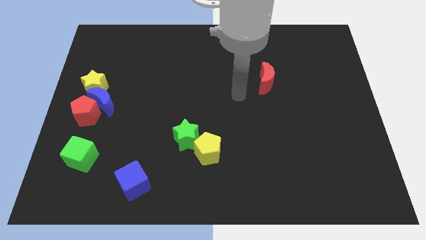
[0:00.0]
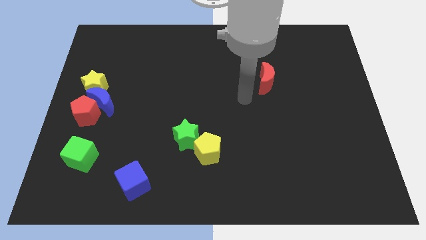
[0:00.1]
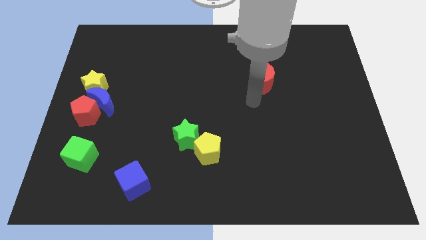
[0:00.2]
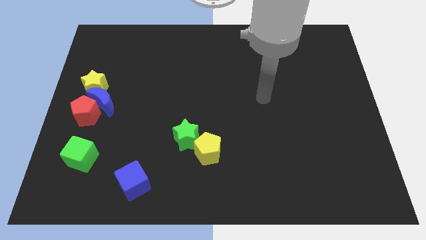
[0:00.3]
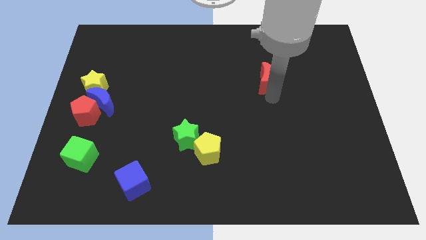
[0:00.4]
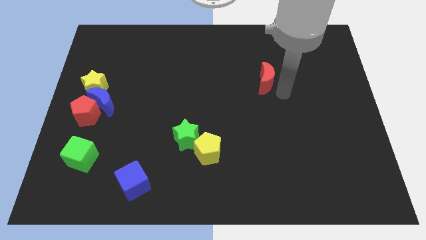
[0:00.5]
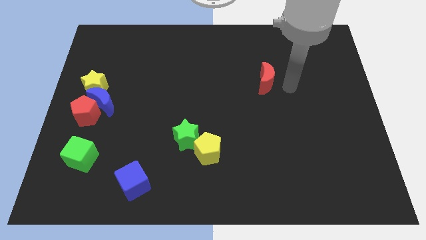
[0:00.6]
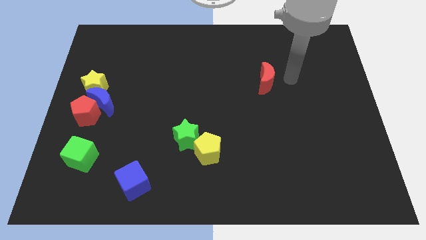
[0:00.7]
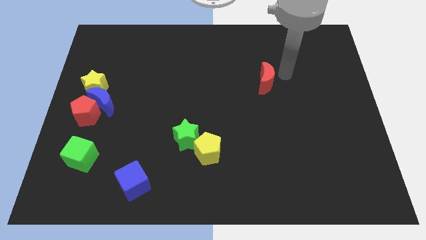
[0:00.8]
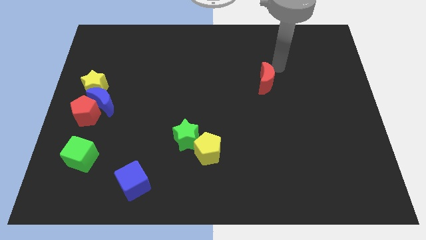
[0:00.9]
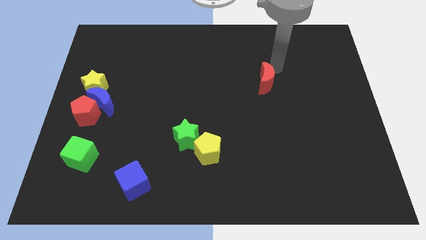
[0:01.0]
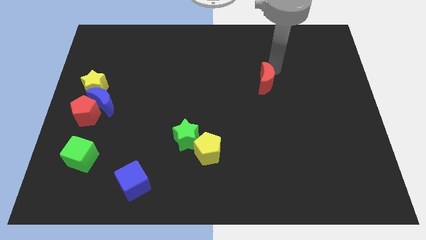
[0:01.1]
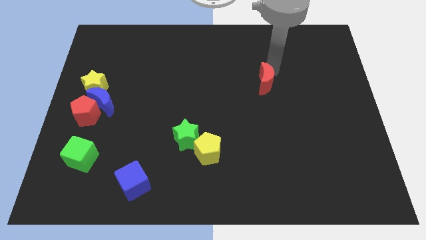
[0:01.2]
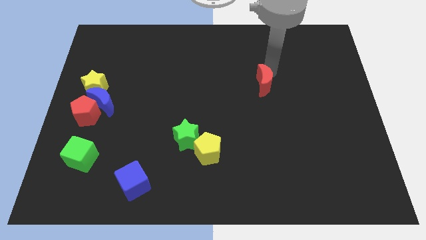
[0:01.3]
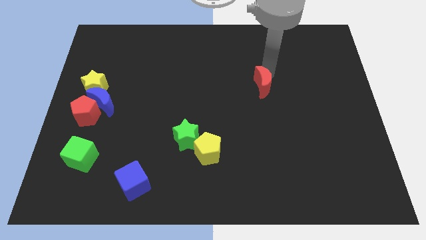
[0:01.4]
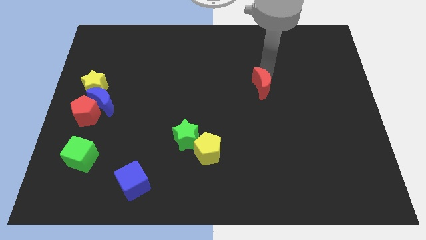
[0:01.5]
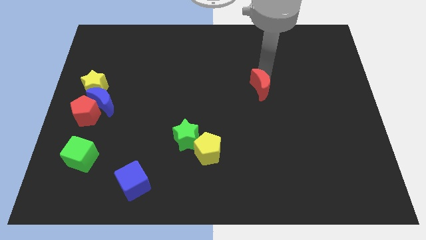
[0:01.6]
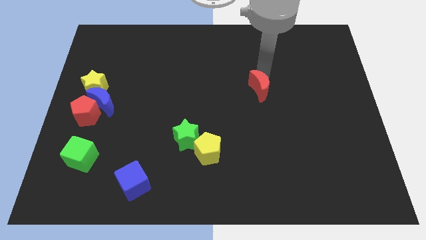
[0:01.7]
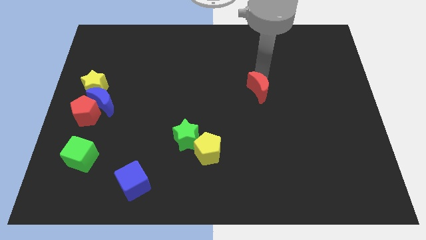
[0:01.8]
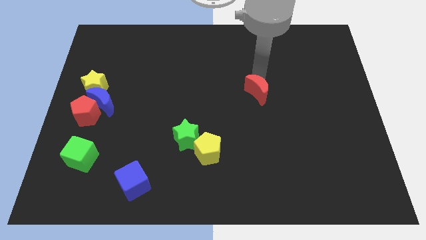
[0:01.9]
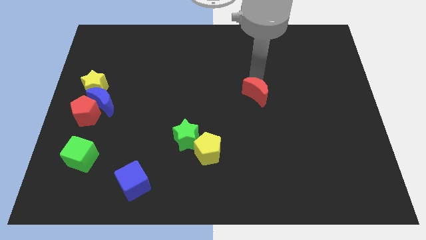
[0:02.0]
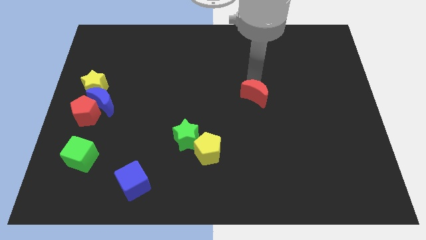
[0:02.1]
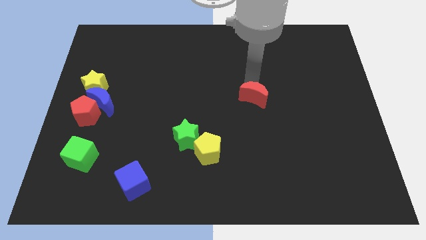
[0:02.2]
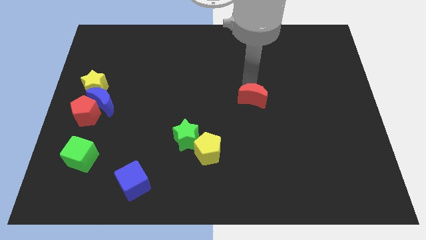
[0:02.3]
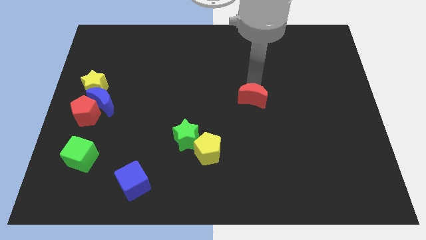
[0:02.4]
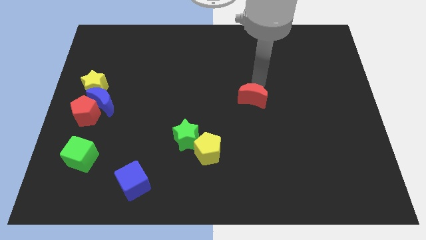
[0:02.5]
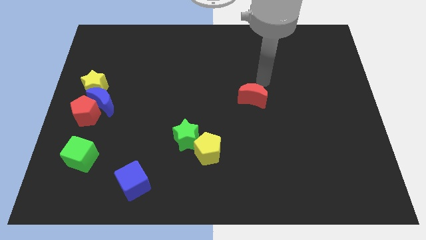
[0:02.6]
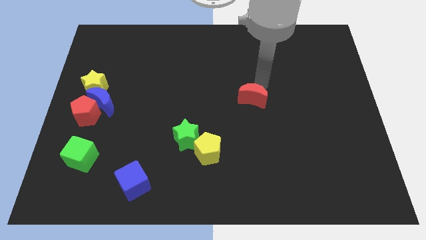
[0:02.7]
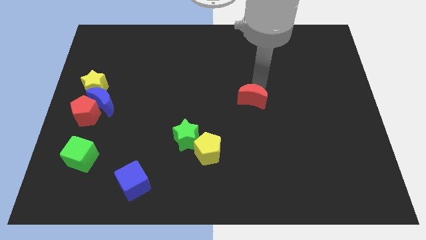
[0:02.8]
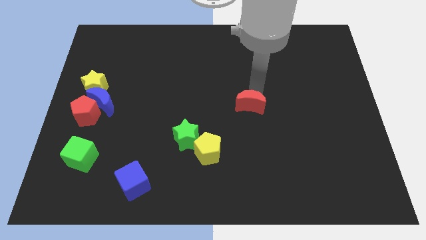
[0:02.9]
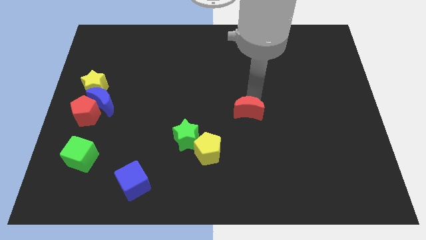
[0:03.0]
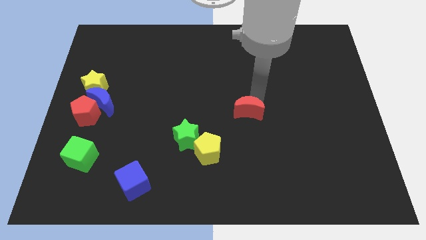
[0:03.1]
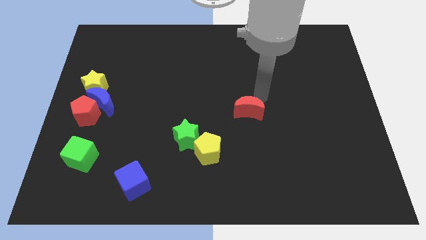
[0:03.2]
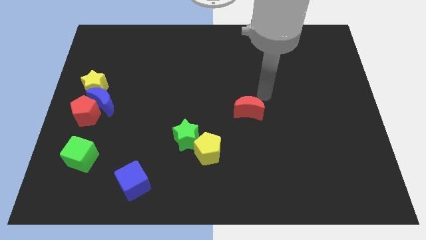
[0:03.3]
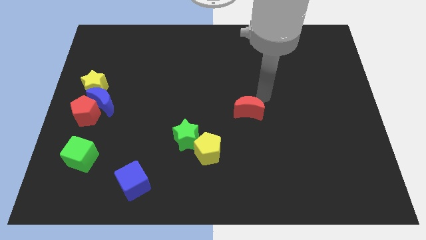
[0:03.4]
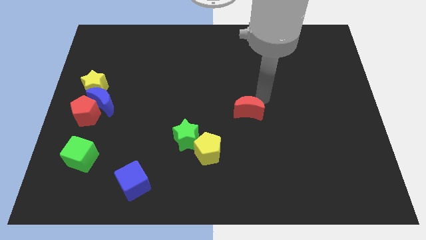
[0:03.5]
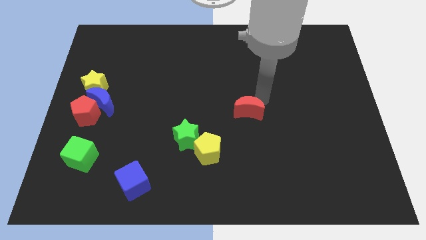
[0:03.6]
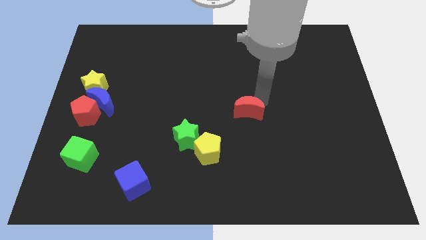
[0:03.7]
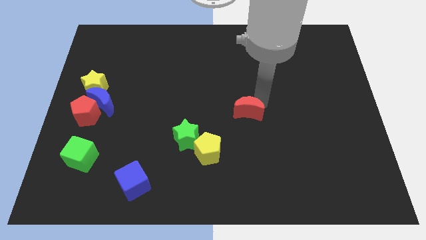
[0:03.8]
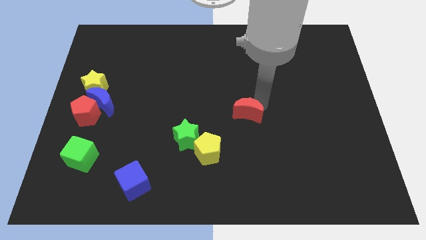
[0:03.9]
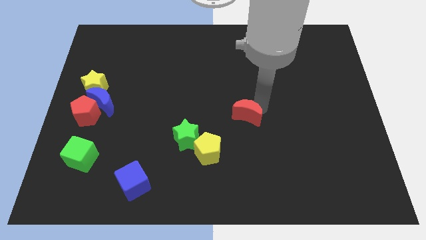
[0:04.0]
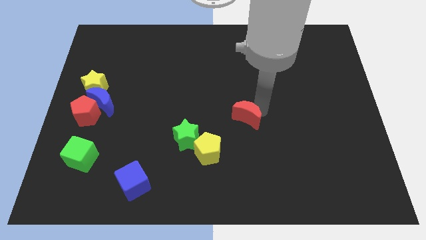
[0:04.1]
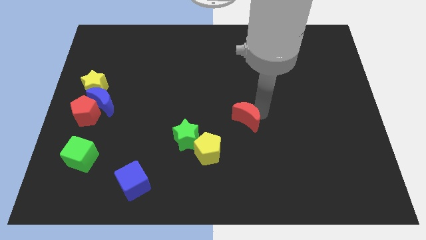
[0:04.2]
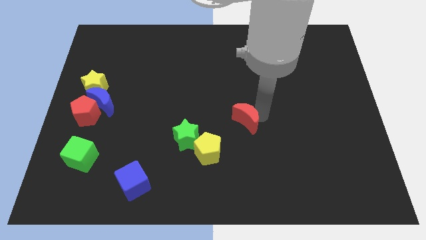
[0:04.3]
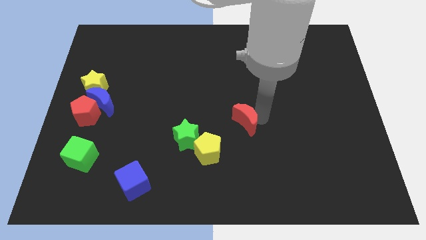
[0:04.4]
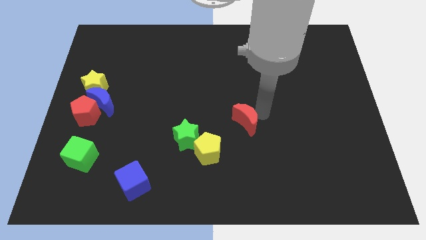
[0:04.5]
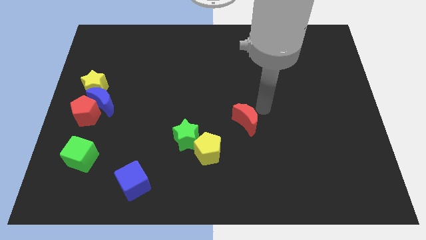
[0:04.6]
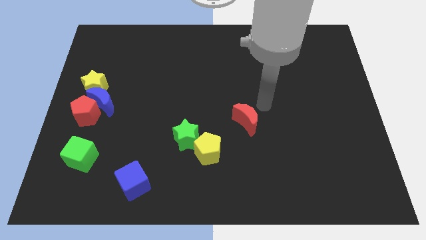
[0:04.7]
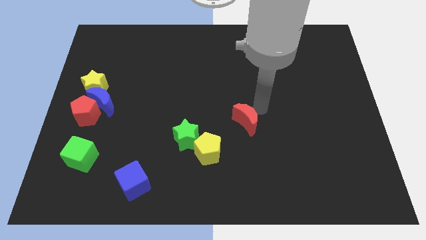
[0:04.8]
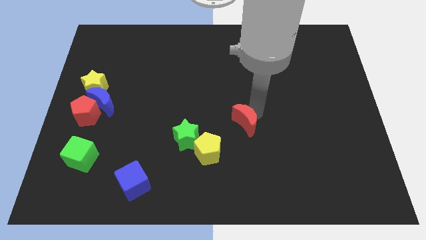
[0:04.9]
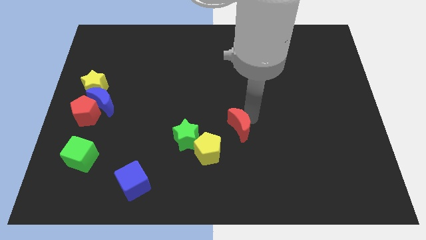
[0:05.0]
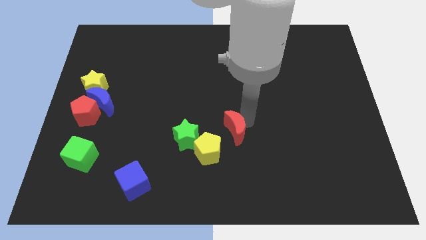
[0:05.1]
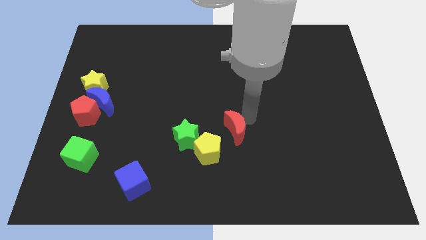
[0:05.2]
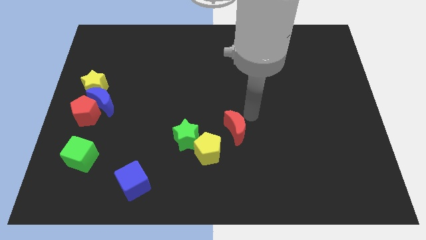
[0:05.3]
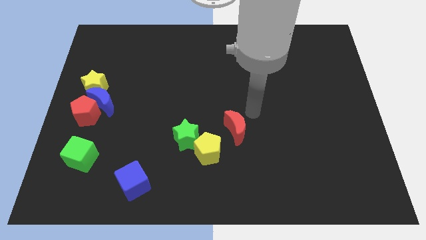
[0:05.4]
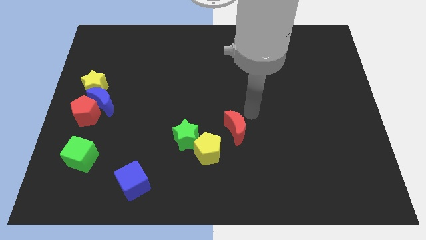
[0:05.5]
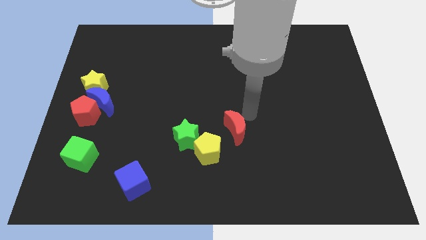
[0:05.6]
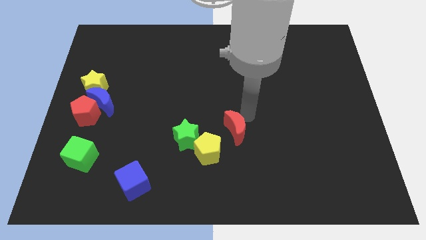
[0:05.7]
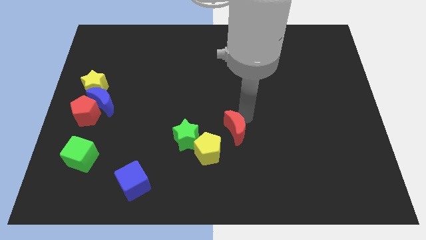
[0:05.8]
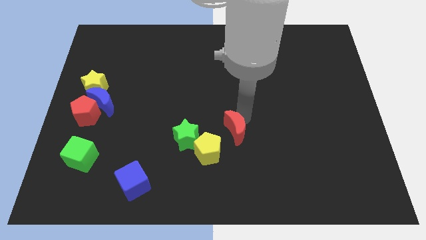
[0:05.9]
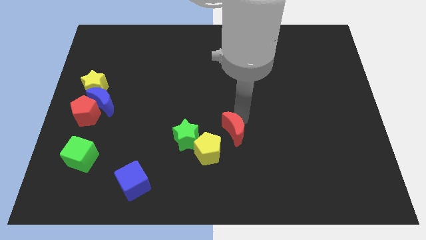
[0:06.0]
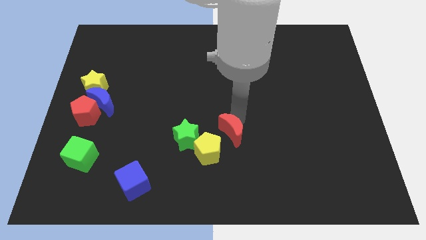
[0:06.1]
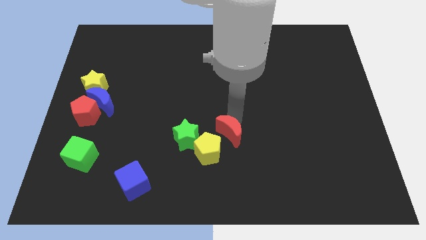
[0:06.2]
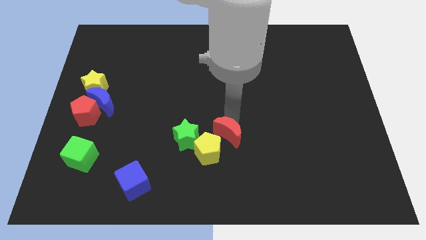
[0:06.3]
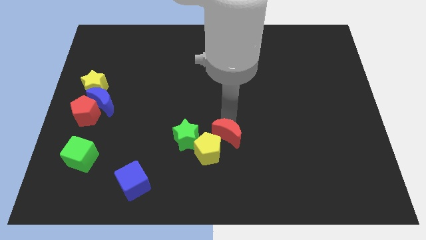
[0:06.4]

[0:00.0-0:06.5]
push the red moon close to the yellow pentagon

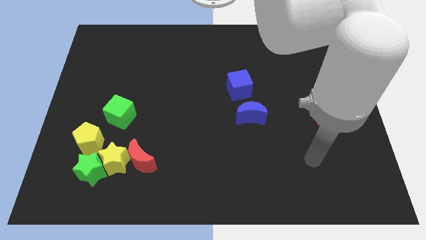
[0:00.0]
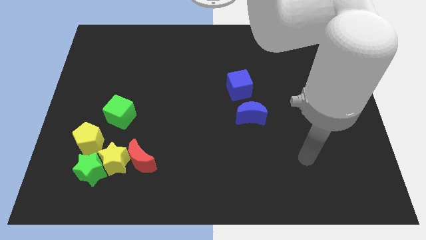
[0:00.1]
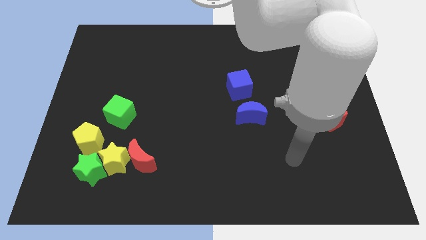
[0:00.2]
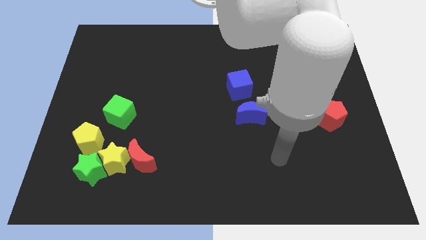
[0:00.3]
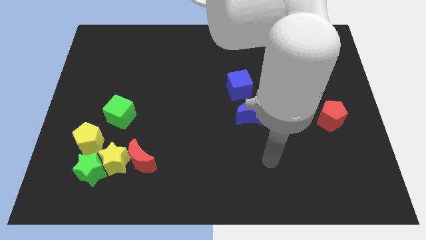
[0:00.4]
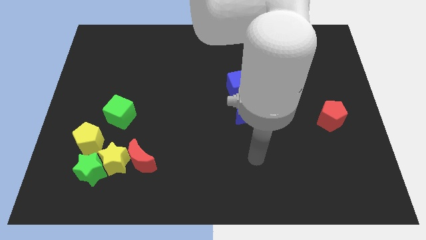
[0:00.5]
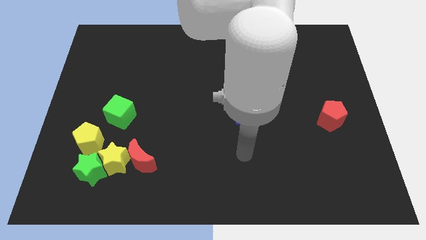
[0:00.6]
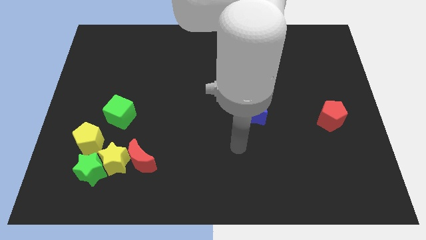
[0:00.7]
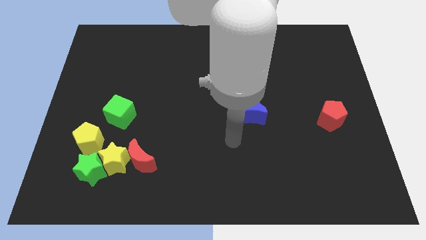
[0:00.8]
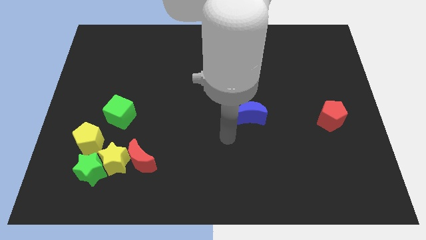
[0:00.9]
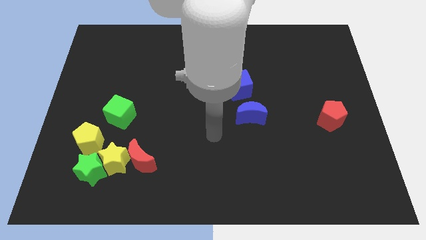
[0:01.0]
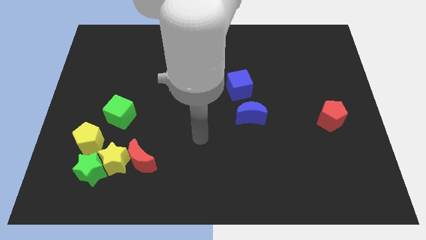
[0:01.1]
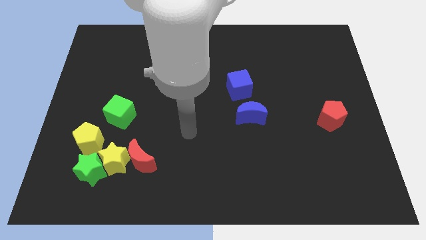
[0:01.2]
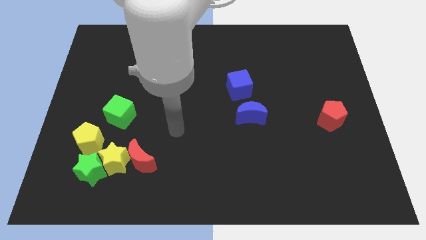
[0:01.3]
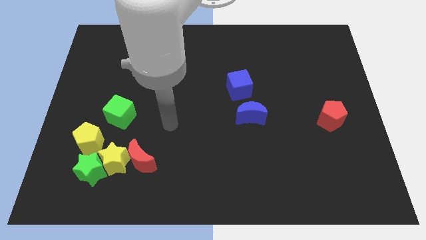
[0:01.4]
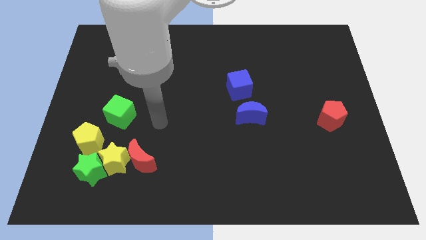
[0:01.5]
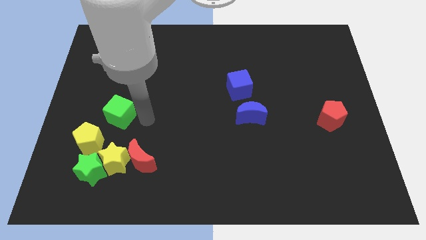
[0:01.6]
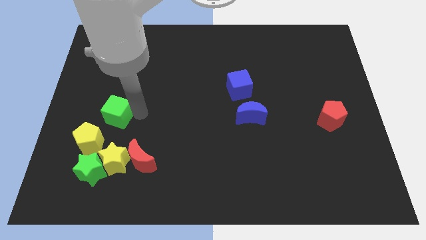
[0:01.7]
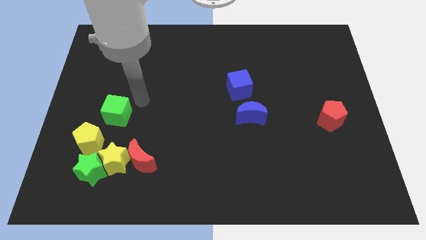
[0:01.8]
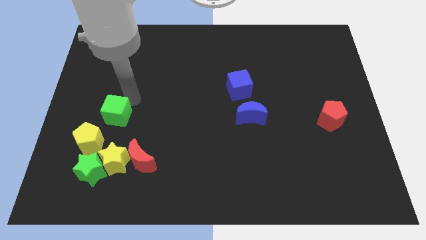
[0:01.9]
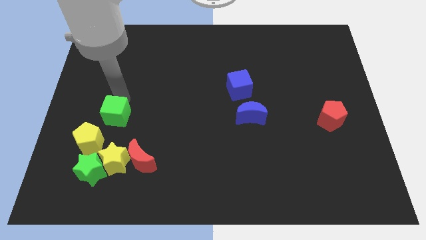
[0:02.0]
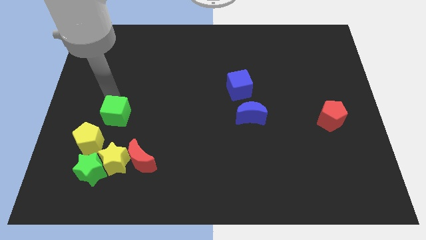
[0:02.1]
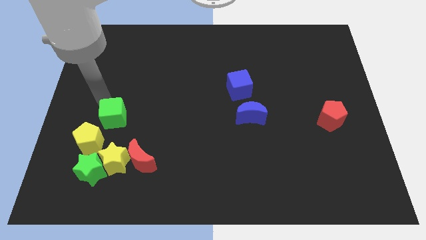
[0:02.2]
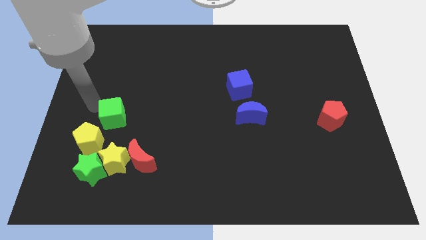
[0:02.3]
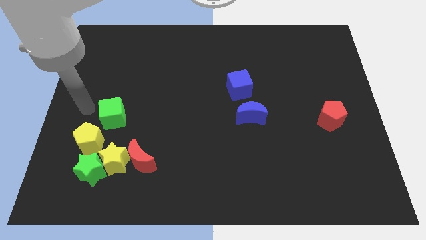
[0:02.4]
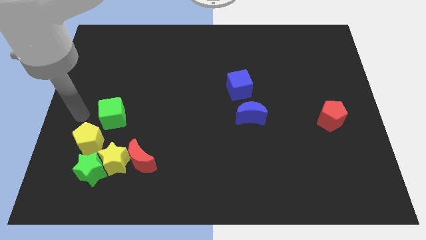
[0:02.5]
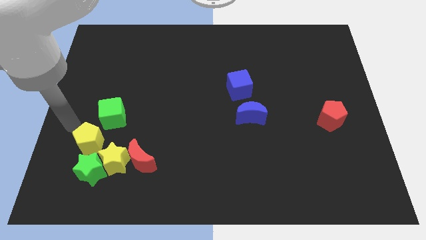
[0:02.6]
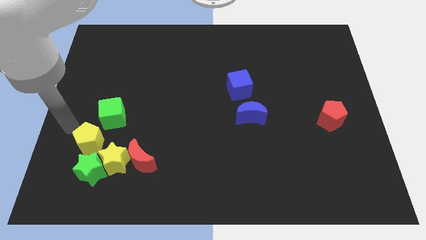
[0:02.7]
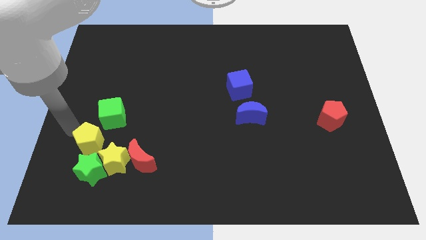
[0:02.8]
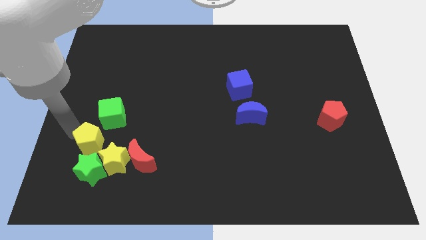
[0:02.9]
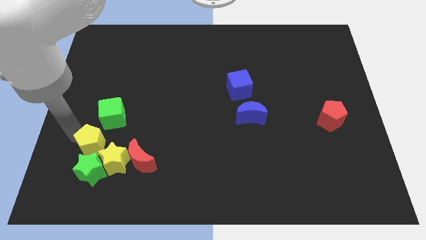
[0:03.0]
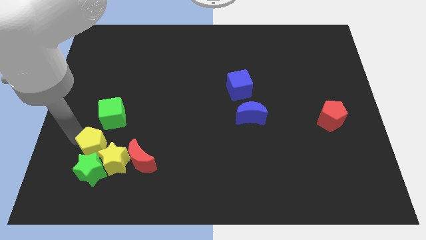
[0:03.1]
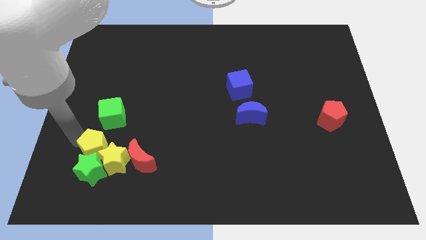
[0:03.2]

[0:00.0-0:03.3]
push the yellow pentagon to the yellow star
